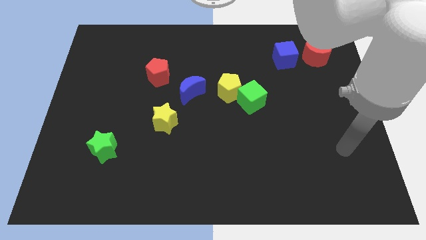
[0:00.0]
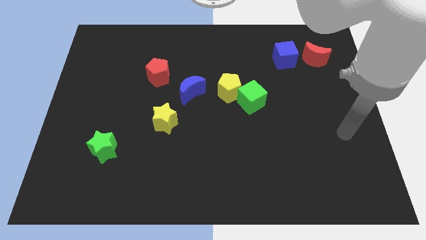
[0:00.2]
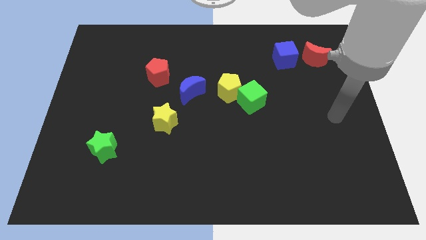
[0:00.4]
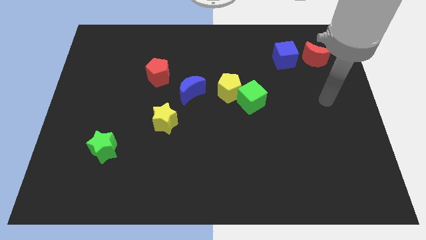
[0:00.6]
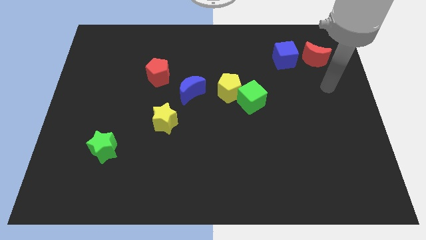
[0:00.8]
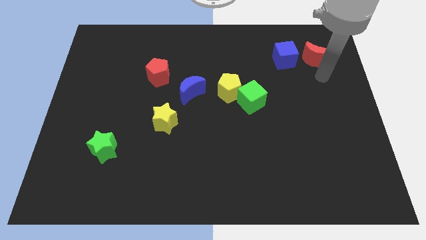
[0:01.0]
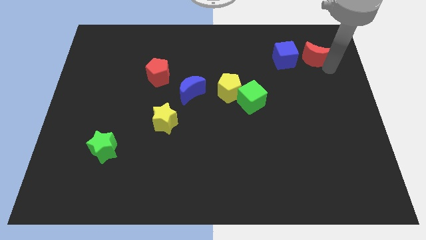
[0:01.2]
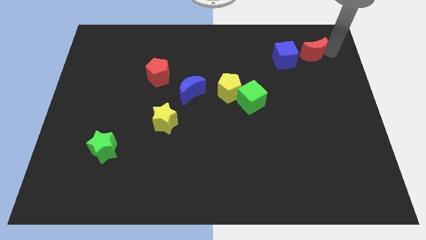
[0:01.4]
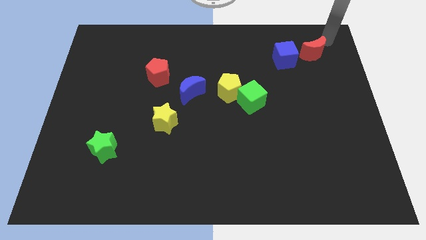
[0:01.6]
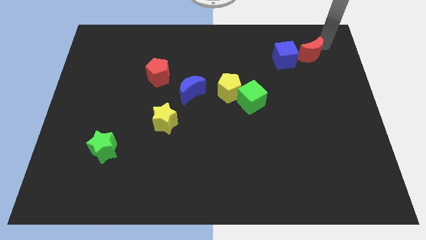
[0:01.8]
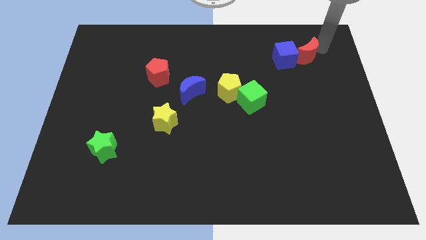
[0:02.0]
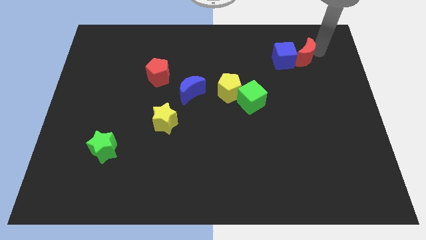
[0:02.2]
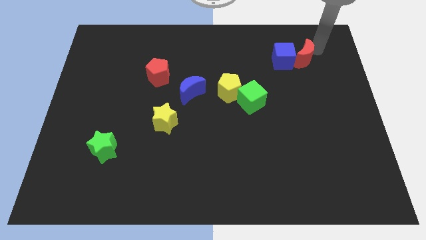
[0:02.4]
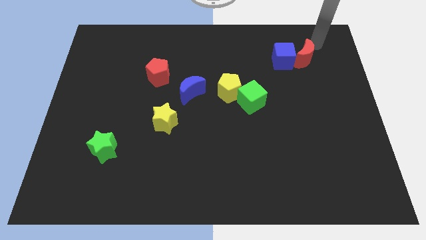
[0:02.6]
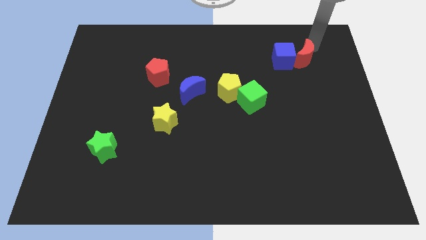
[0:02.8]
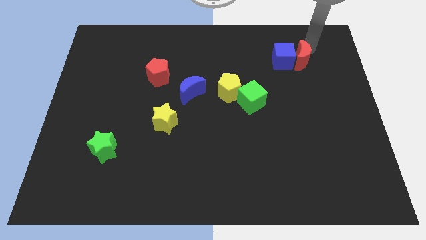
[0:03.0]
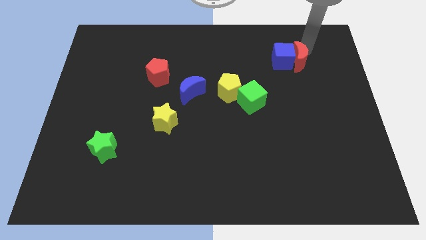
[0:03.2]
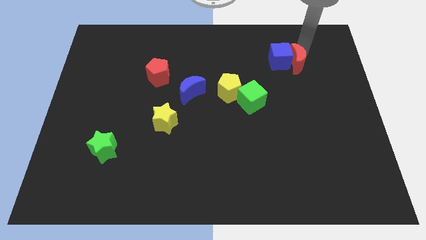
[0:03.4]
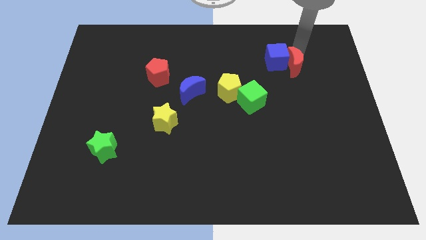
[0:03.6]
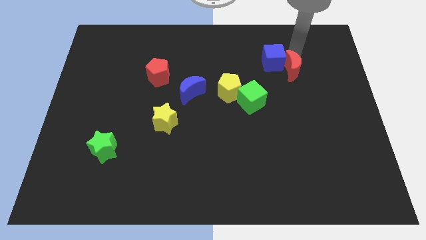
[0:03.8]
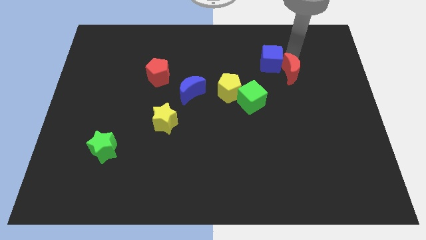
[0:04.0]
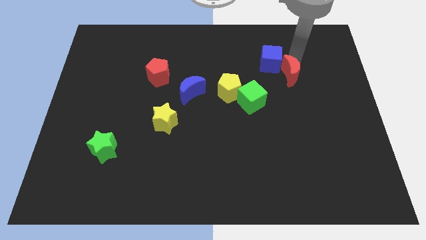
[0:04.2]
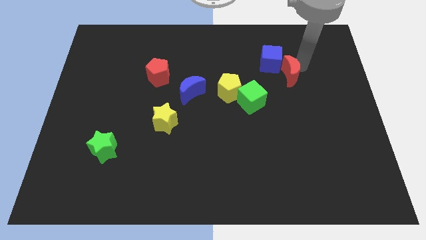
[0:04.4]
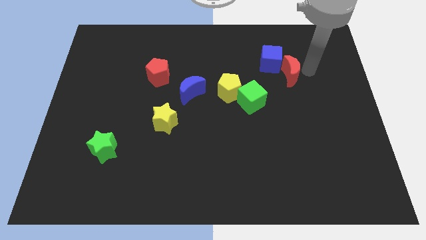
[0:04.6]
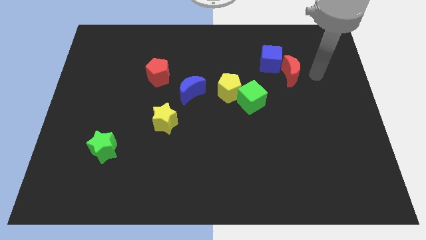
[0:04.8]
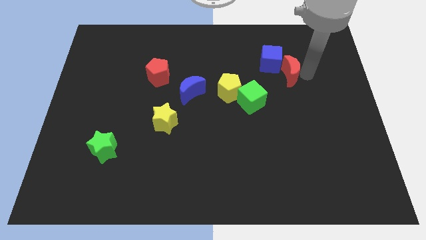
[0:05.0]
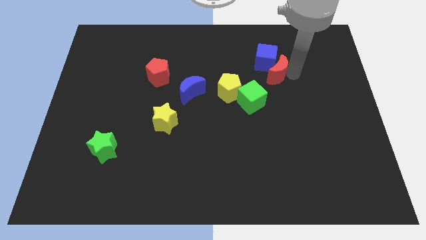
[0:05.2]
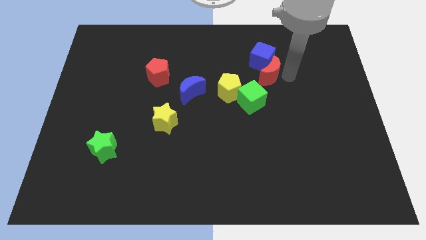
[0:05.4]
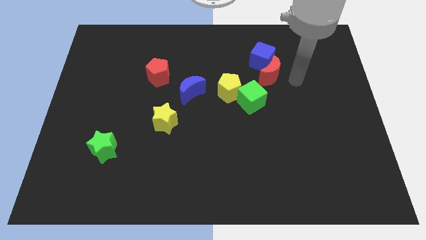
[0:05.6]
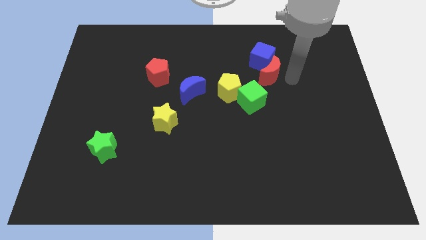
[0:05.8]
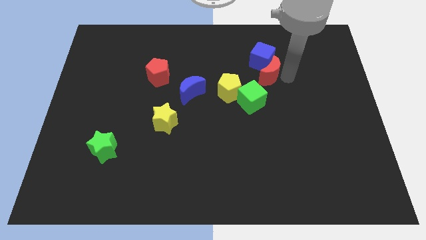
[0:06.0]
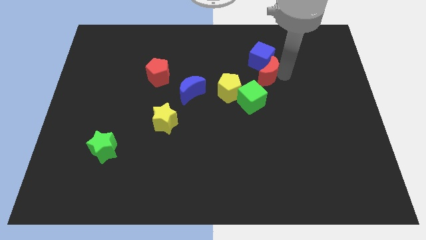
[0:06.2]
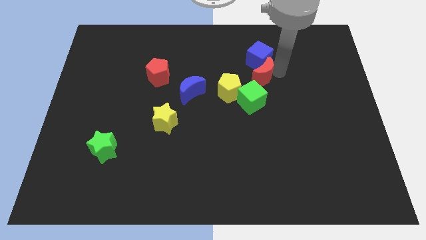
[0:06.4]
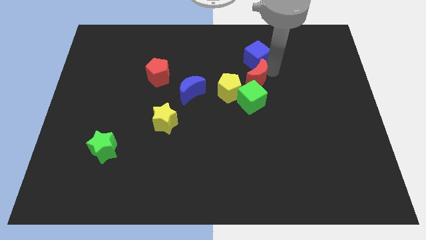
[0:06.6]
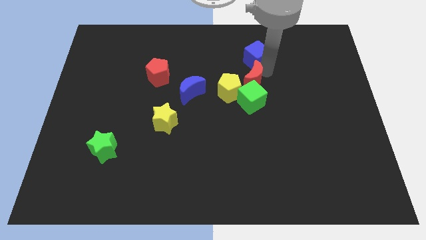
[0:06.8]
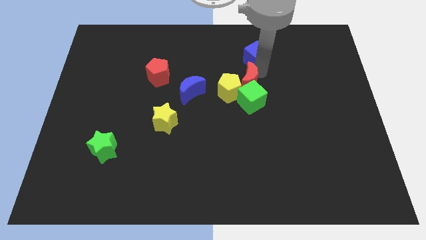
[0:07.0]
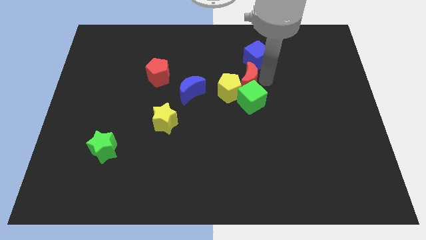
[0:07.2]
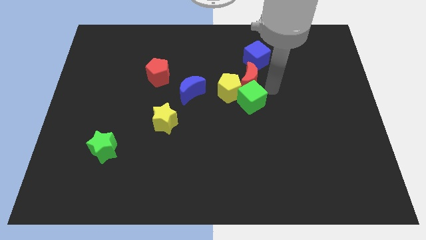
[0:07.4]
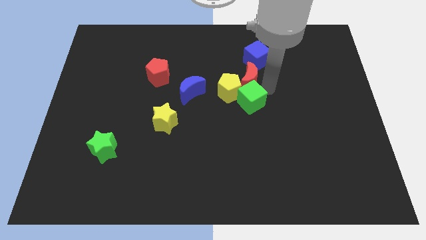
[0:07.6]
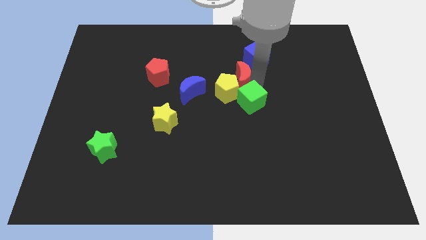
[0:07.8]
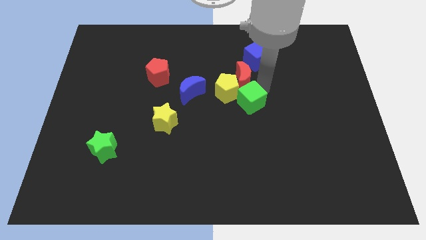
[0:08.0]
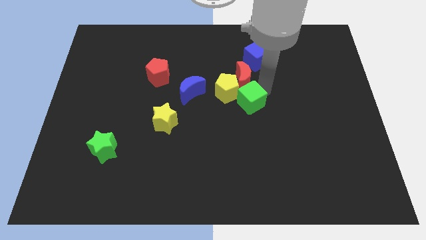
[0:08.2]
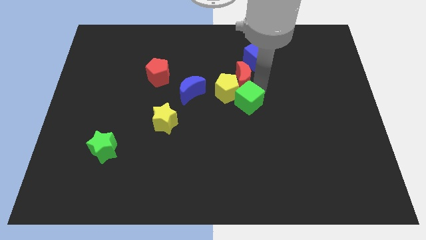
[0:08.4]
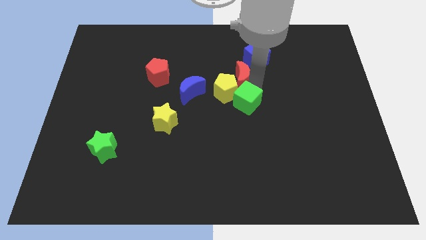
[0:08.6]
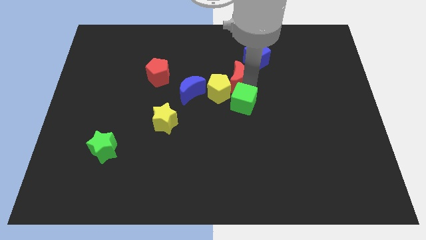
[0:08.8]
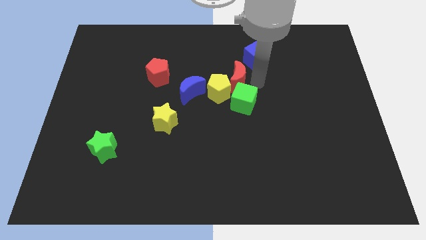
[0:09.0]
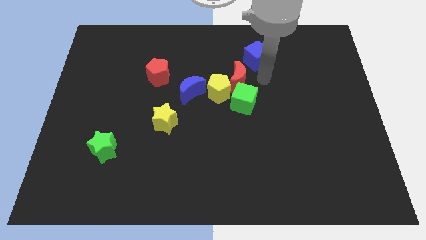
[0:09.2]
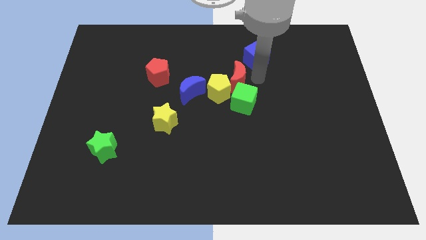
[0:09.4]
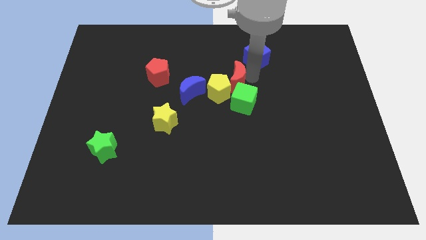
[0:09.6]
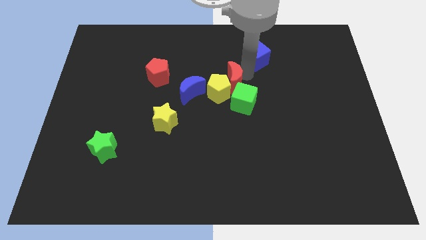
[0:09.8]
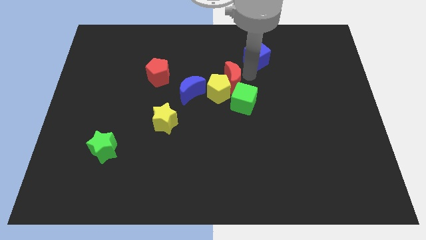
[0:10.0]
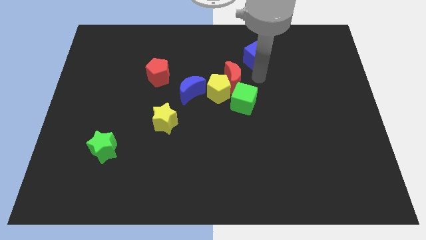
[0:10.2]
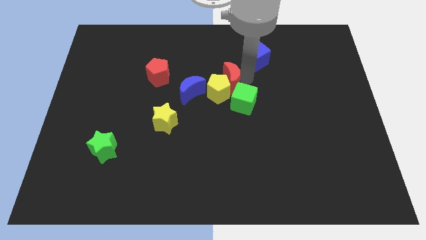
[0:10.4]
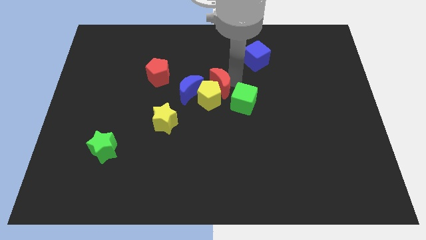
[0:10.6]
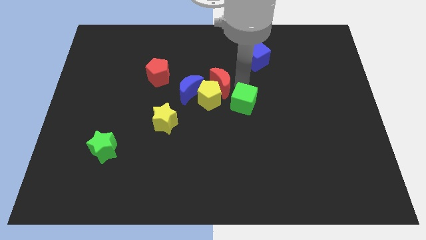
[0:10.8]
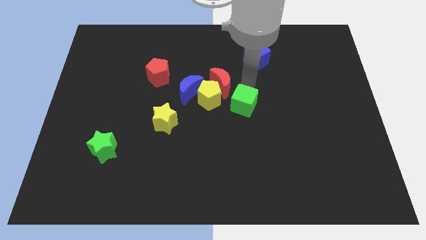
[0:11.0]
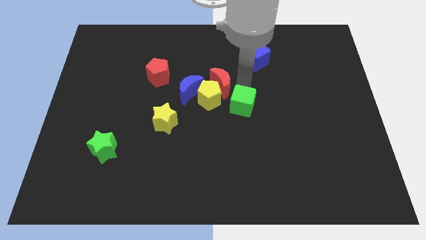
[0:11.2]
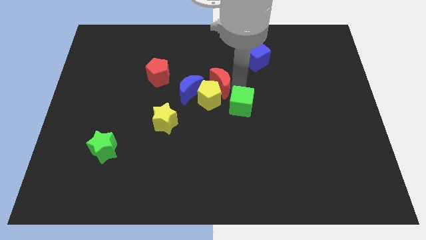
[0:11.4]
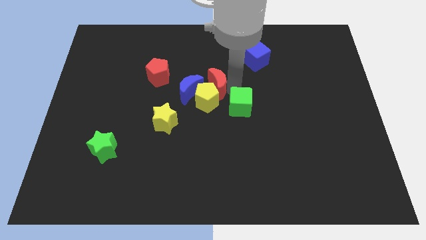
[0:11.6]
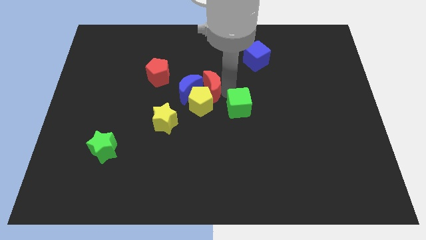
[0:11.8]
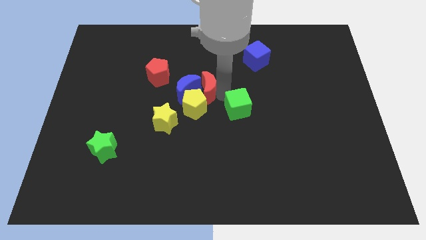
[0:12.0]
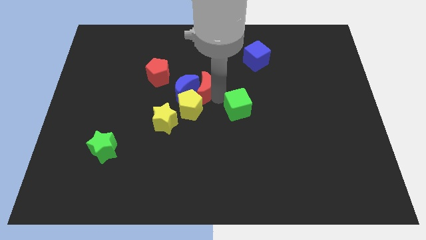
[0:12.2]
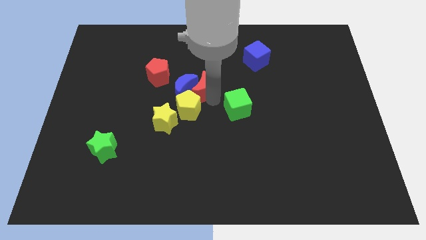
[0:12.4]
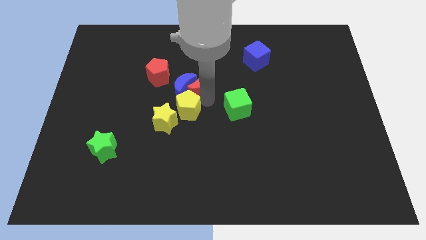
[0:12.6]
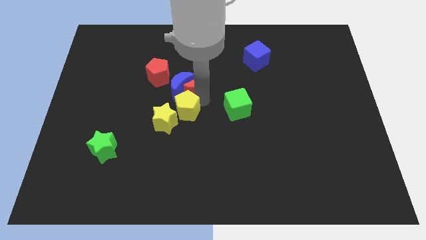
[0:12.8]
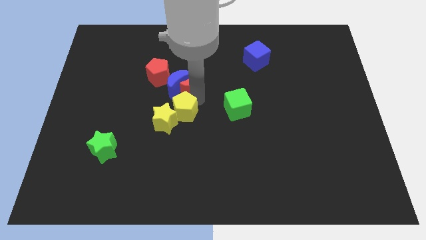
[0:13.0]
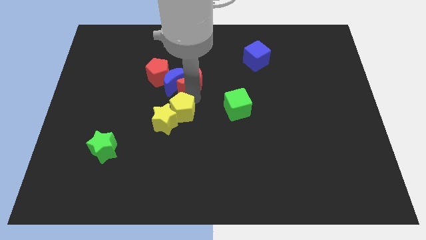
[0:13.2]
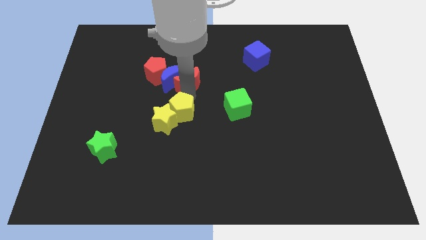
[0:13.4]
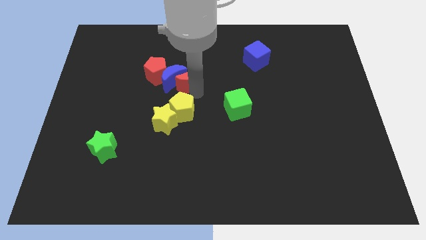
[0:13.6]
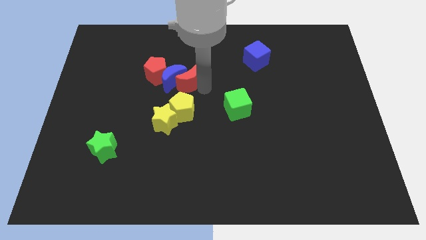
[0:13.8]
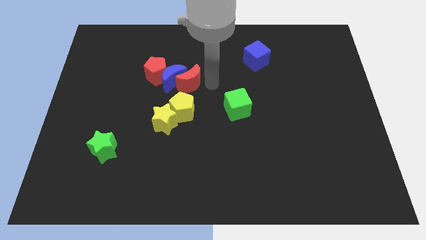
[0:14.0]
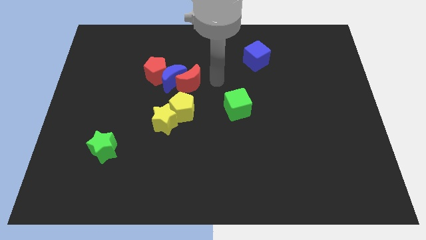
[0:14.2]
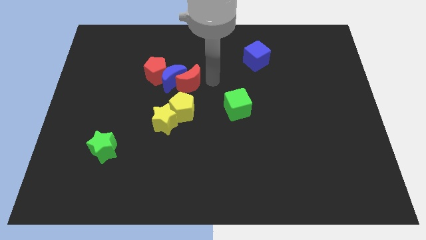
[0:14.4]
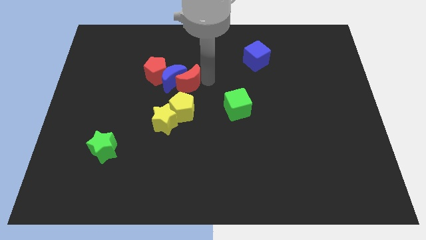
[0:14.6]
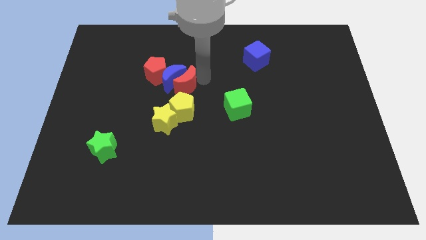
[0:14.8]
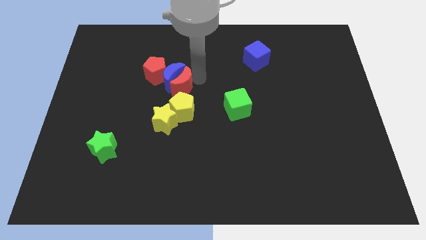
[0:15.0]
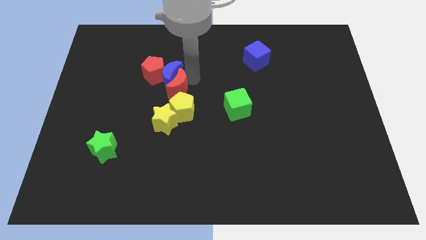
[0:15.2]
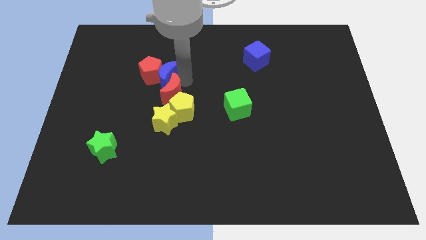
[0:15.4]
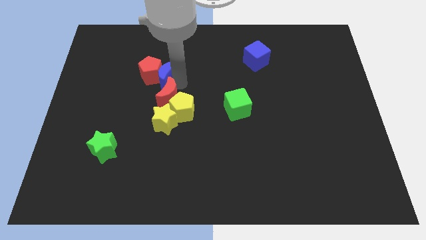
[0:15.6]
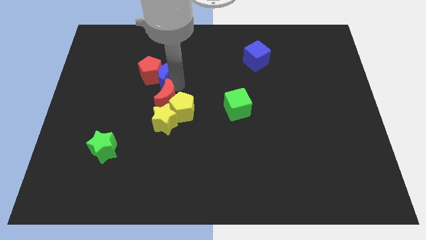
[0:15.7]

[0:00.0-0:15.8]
slide the red moon diagonally up and to the left of the yellow star
